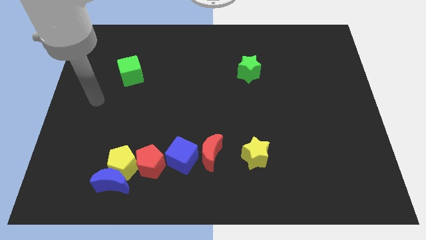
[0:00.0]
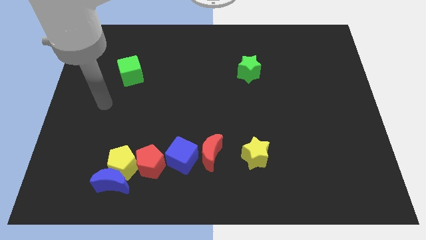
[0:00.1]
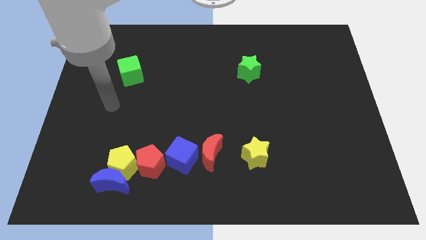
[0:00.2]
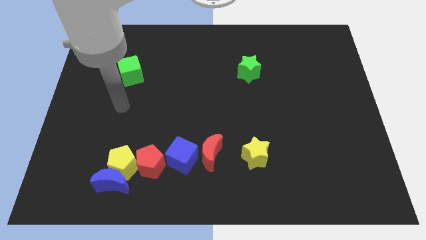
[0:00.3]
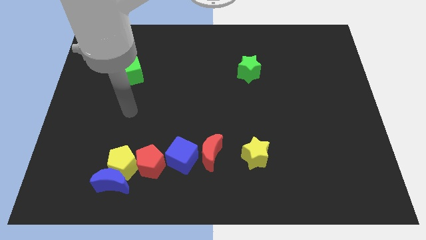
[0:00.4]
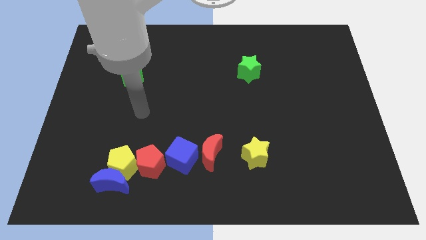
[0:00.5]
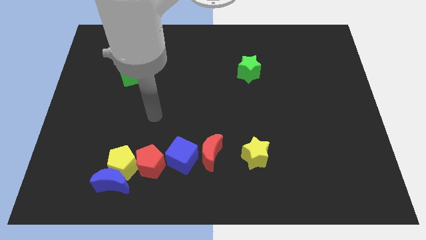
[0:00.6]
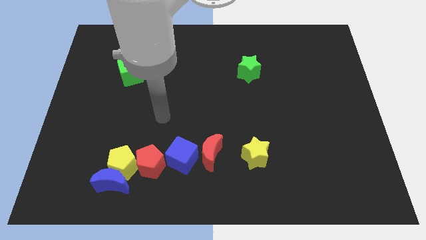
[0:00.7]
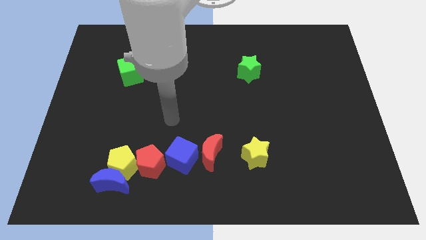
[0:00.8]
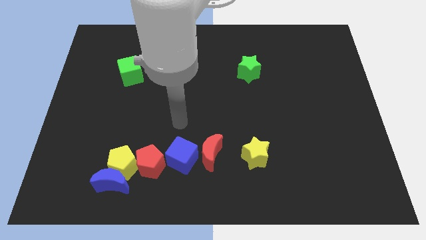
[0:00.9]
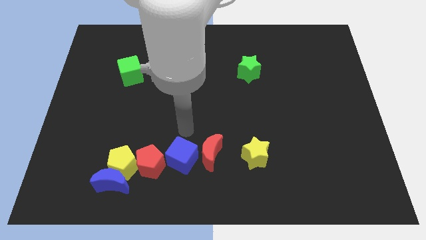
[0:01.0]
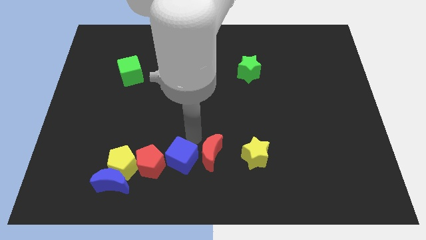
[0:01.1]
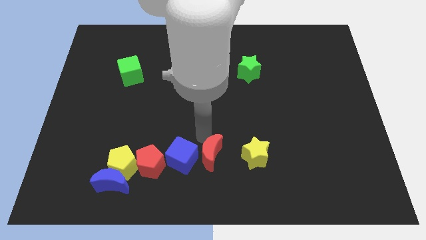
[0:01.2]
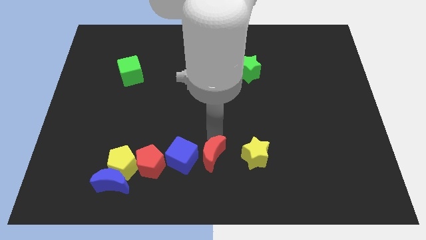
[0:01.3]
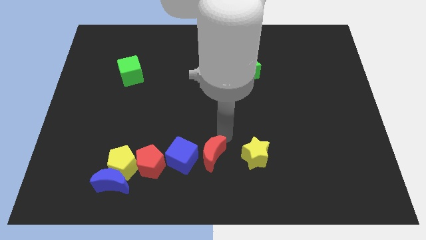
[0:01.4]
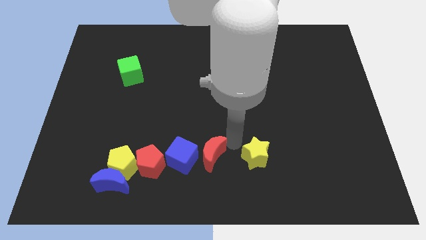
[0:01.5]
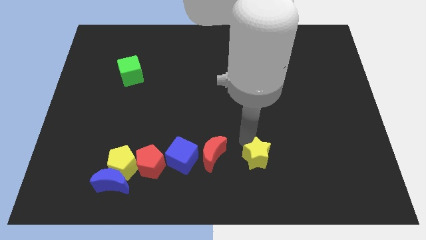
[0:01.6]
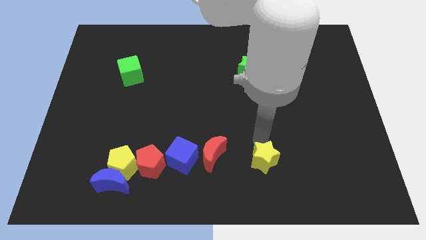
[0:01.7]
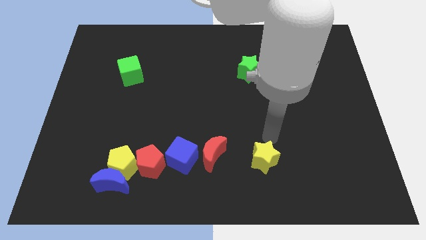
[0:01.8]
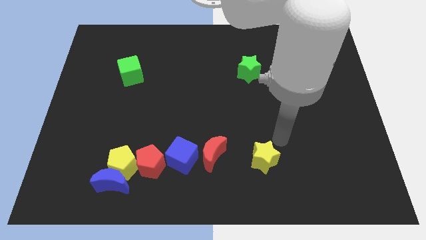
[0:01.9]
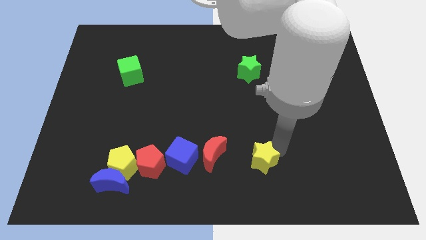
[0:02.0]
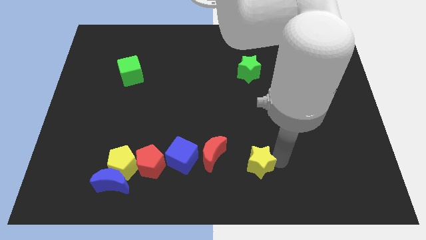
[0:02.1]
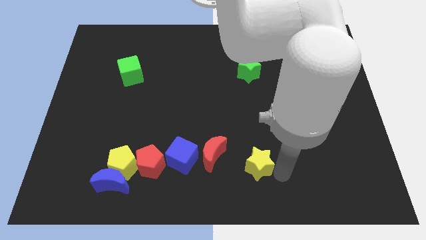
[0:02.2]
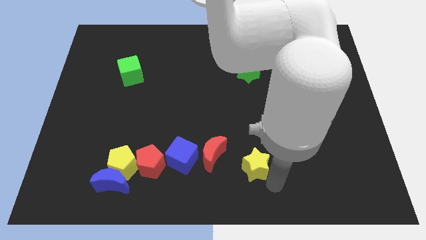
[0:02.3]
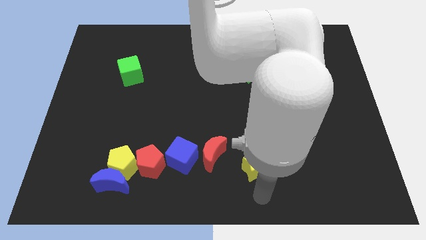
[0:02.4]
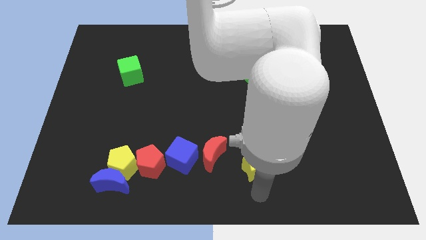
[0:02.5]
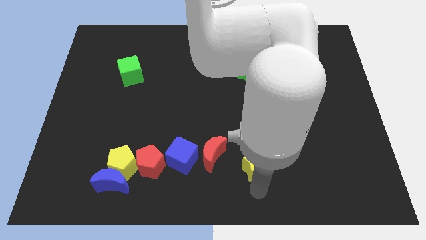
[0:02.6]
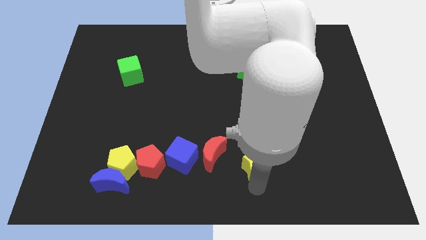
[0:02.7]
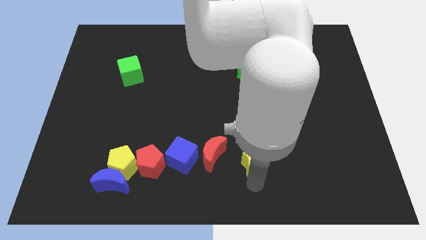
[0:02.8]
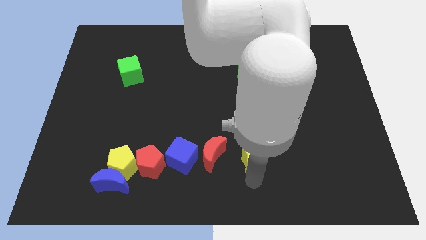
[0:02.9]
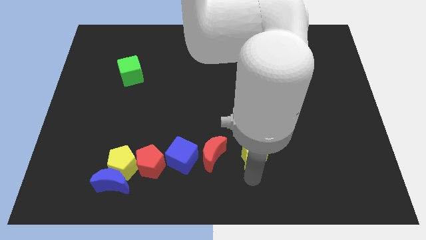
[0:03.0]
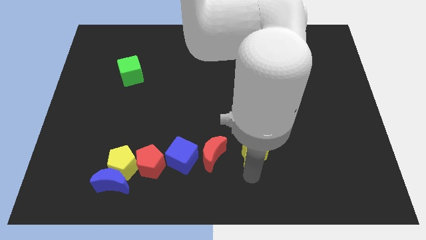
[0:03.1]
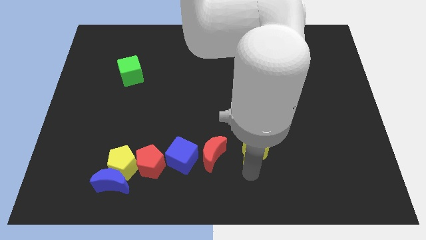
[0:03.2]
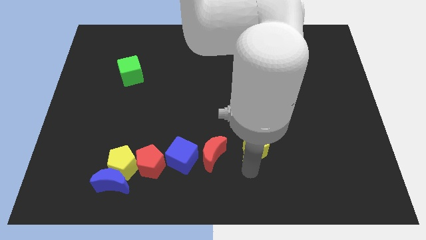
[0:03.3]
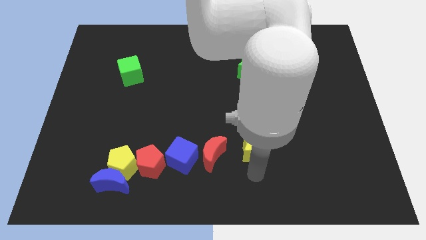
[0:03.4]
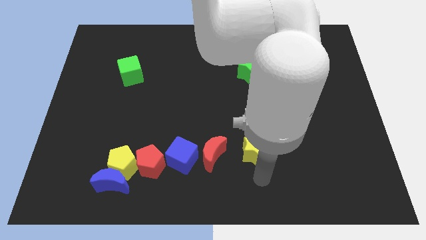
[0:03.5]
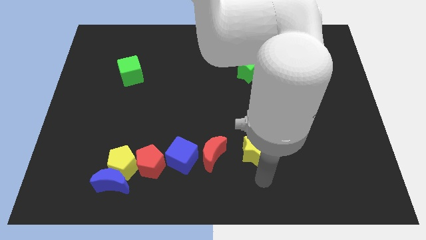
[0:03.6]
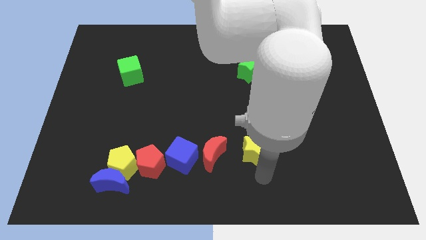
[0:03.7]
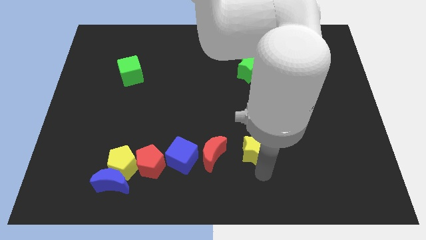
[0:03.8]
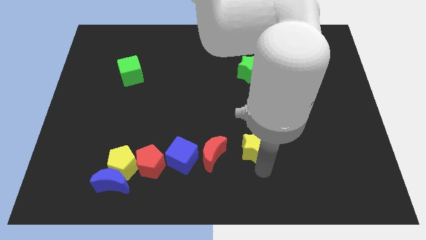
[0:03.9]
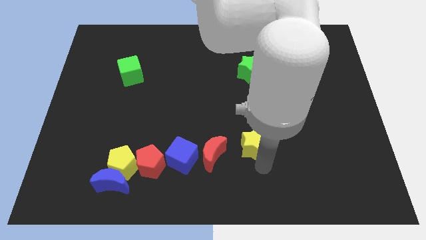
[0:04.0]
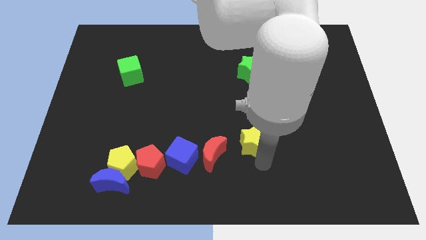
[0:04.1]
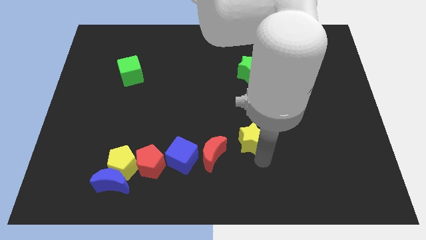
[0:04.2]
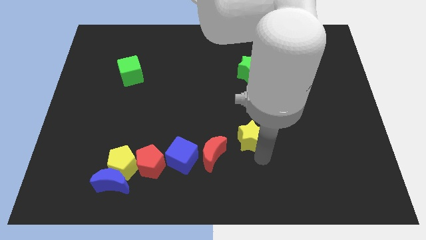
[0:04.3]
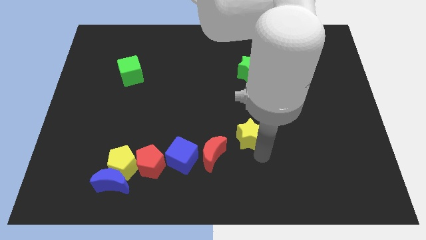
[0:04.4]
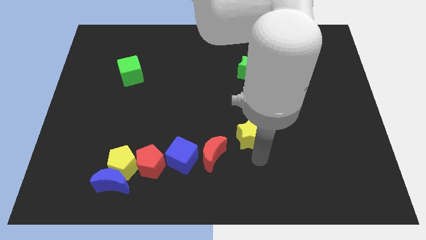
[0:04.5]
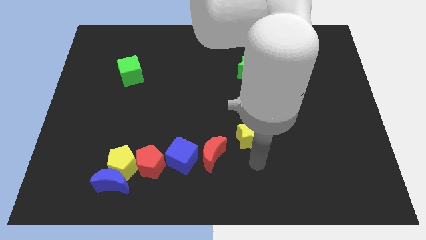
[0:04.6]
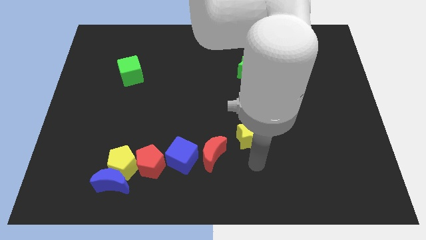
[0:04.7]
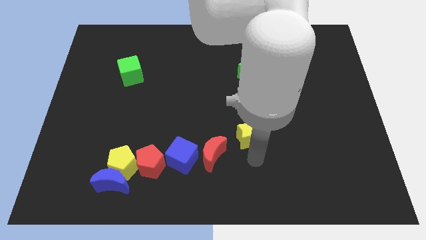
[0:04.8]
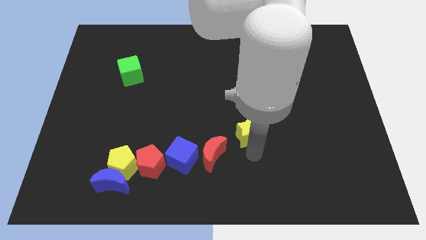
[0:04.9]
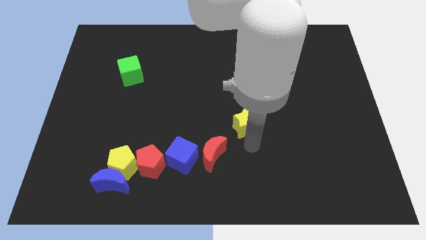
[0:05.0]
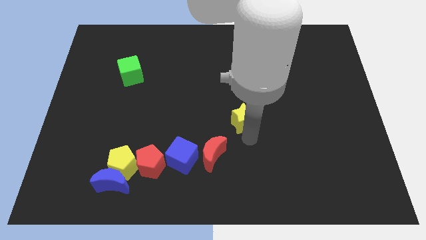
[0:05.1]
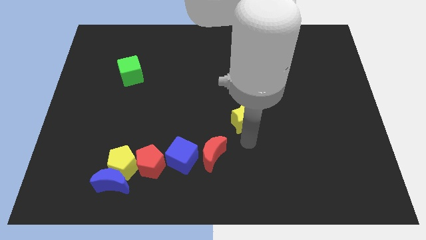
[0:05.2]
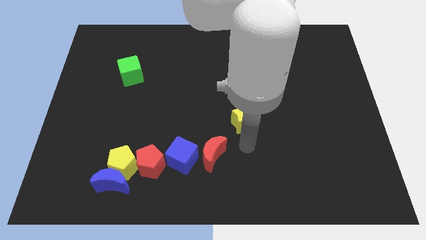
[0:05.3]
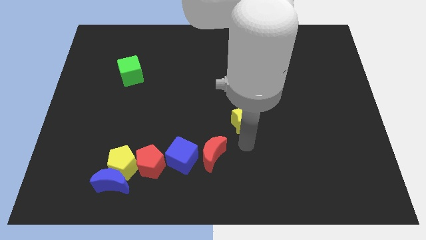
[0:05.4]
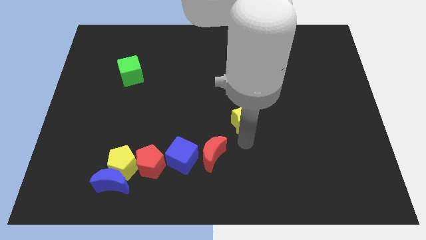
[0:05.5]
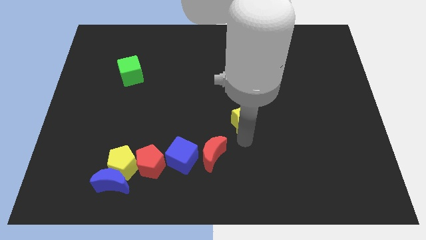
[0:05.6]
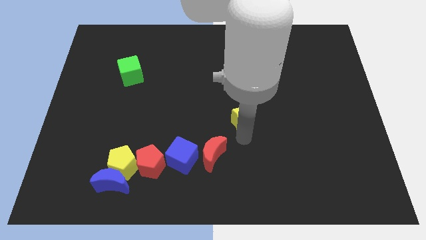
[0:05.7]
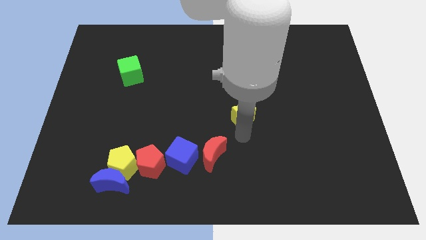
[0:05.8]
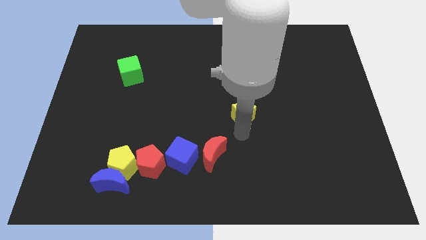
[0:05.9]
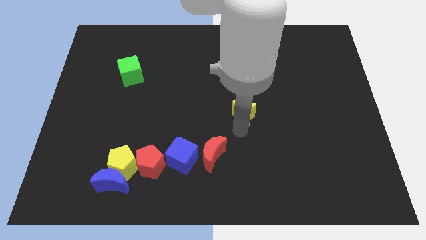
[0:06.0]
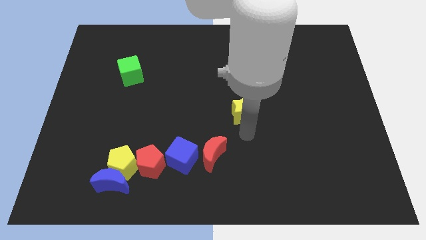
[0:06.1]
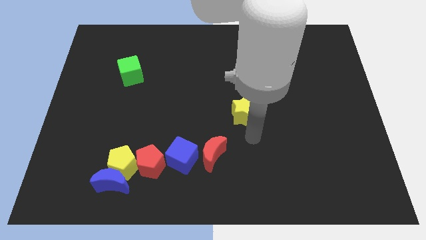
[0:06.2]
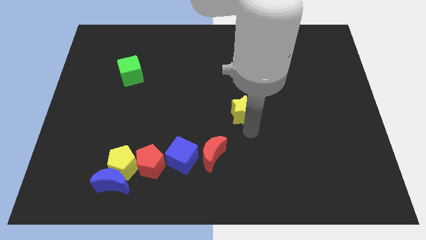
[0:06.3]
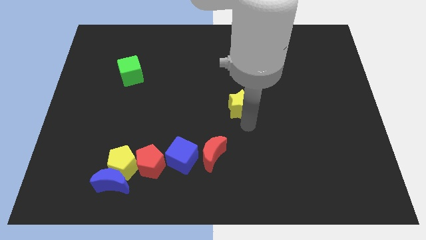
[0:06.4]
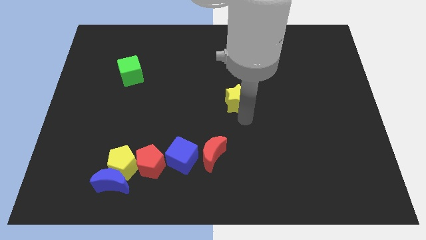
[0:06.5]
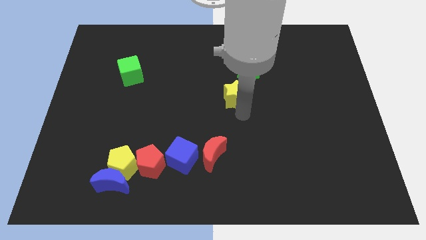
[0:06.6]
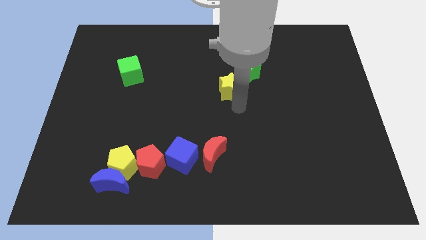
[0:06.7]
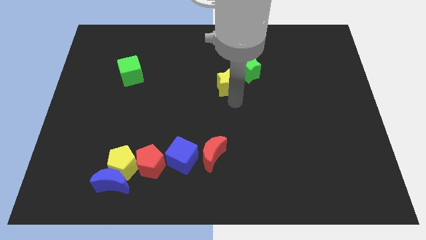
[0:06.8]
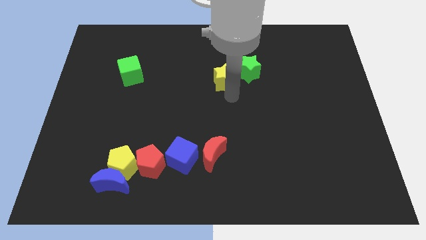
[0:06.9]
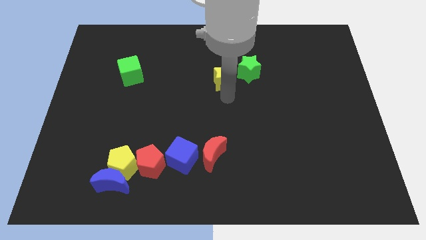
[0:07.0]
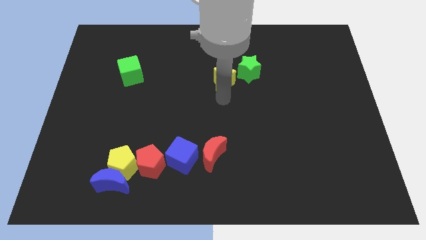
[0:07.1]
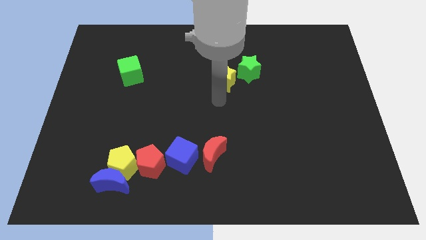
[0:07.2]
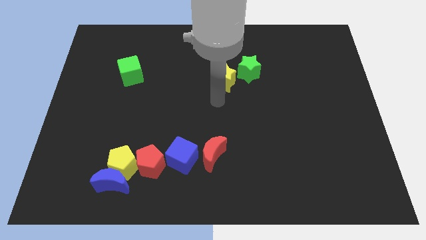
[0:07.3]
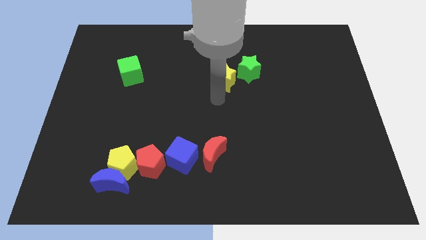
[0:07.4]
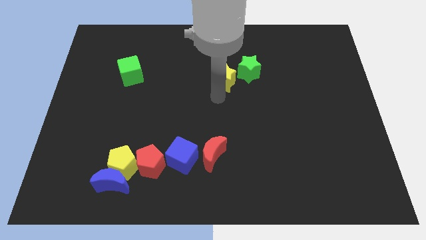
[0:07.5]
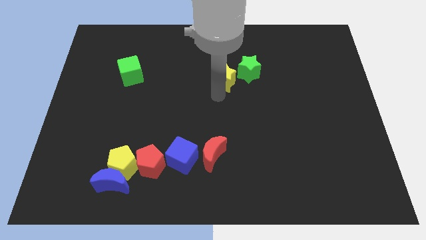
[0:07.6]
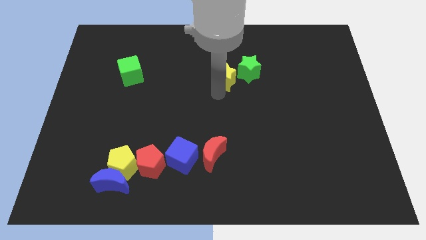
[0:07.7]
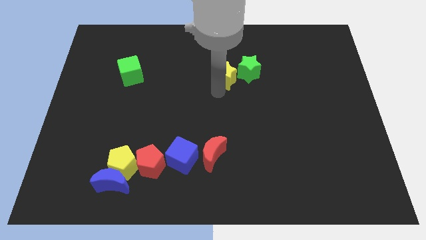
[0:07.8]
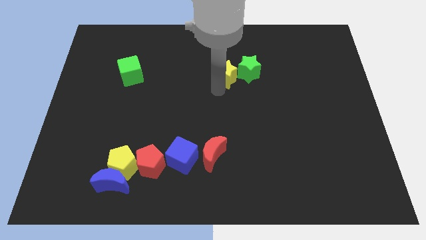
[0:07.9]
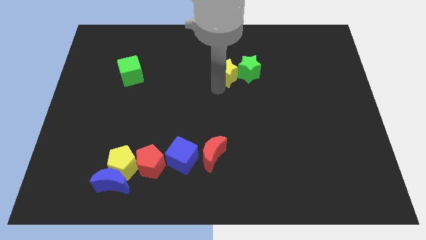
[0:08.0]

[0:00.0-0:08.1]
slide the yellow star diagonally up and to the left of the green star
